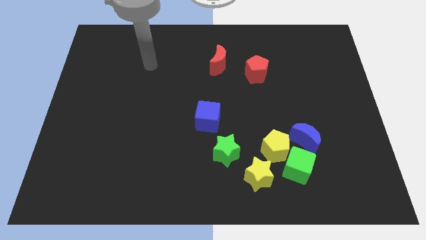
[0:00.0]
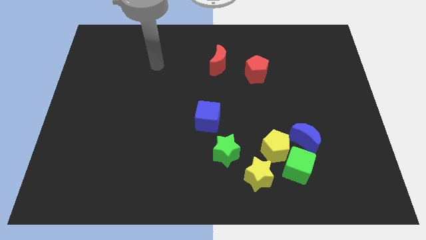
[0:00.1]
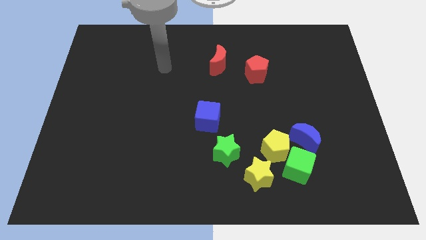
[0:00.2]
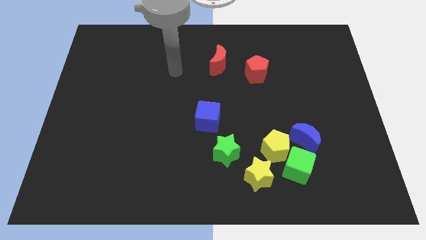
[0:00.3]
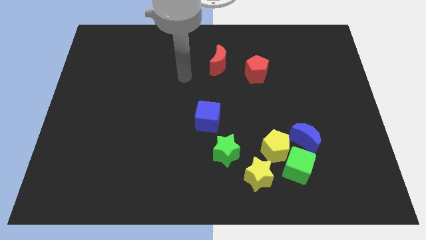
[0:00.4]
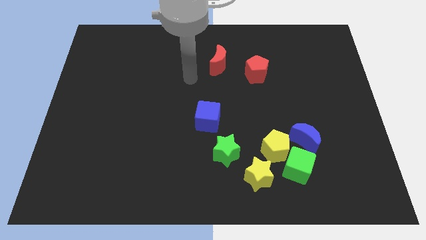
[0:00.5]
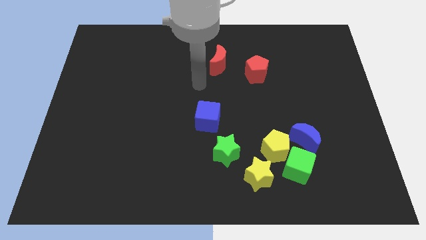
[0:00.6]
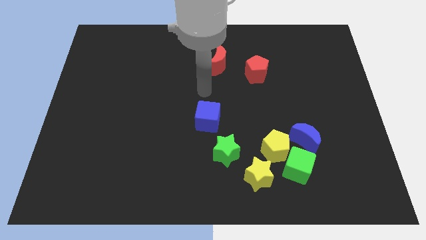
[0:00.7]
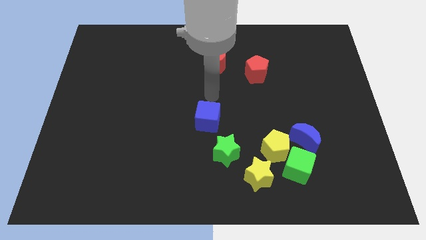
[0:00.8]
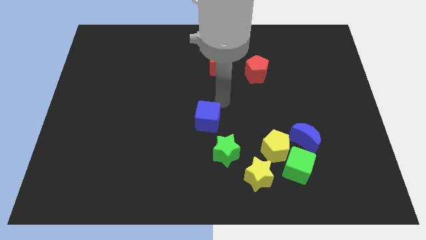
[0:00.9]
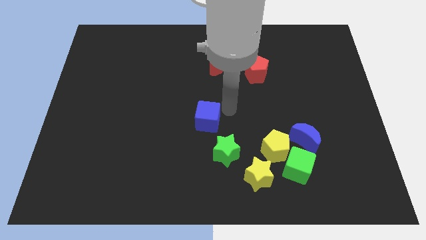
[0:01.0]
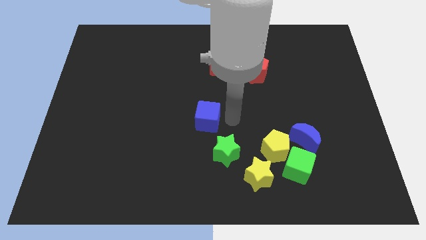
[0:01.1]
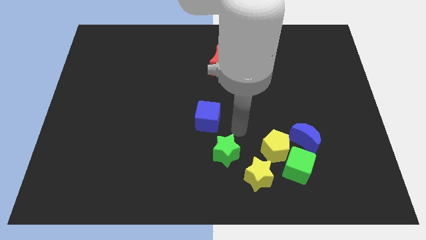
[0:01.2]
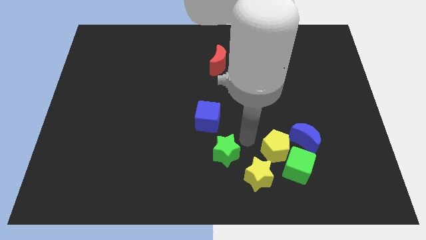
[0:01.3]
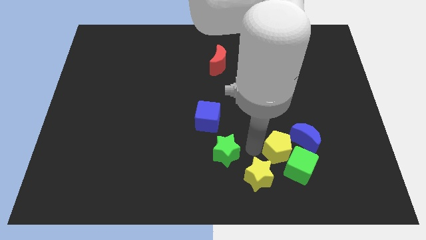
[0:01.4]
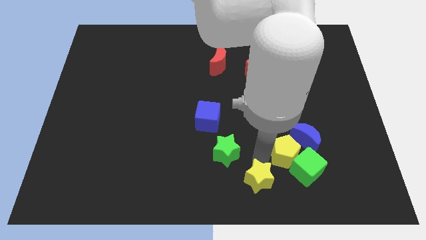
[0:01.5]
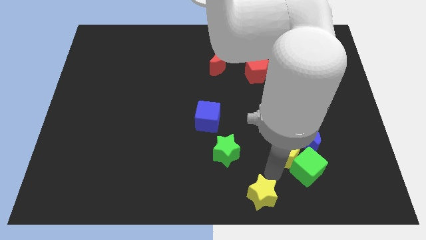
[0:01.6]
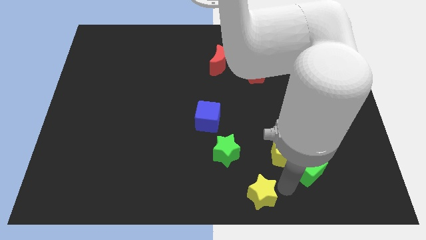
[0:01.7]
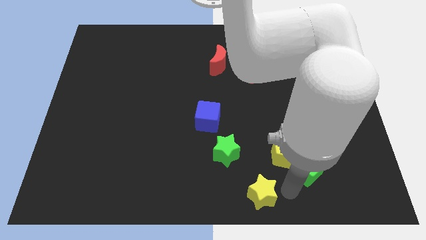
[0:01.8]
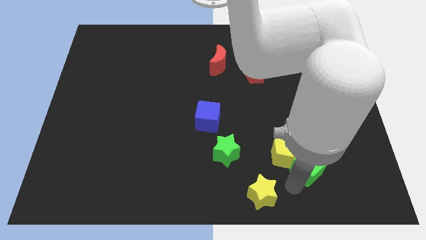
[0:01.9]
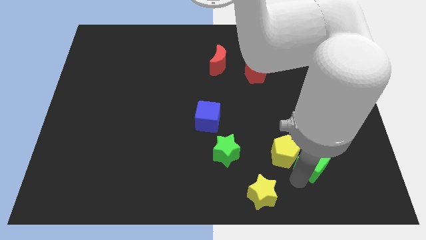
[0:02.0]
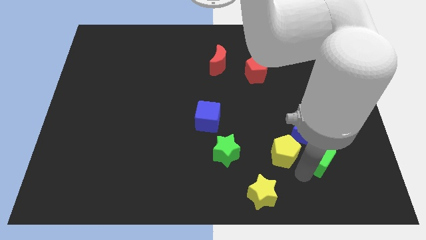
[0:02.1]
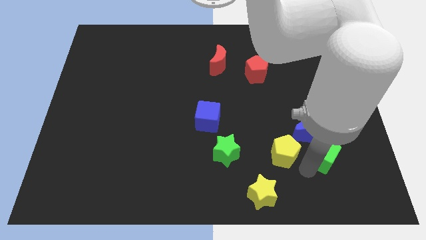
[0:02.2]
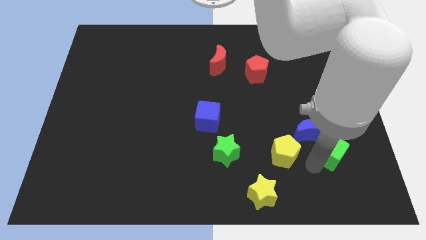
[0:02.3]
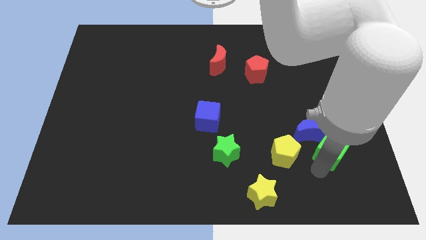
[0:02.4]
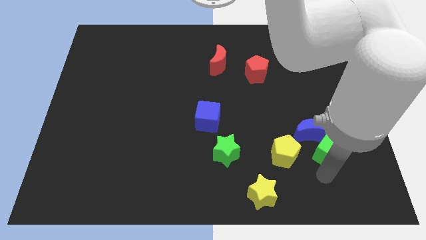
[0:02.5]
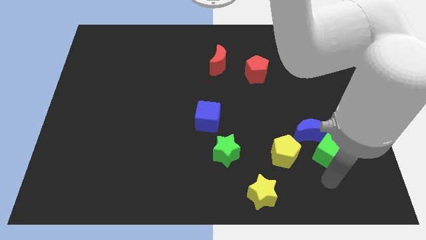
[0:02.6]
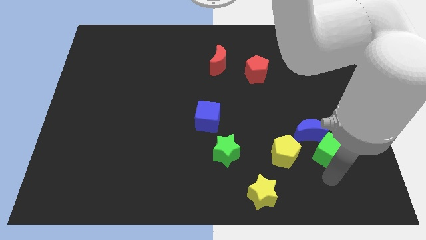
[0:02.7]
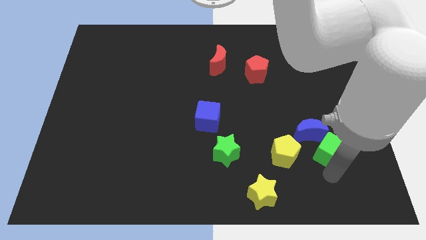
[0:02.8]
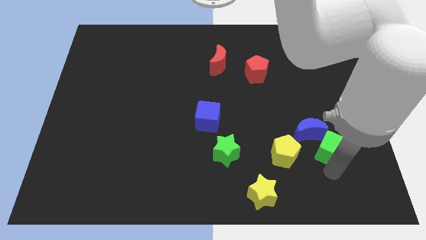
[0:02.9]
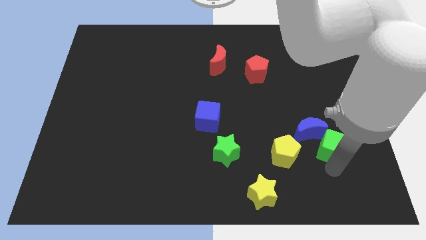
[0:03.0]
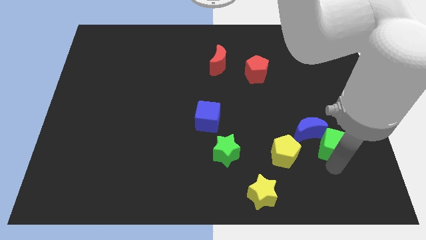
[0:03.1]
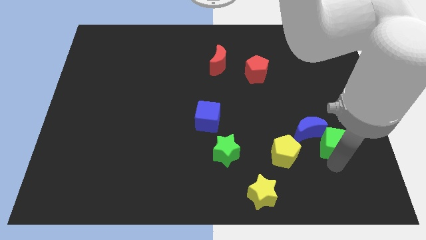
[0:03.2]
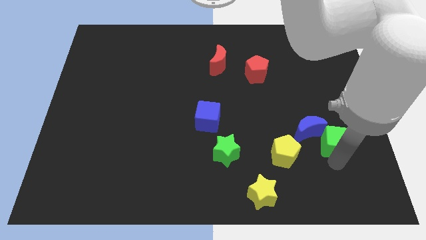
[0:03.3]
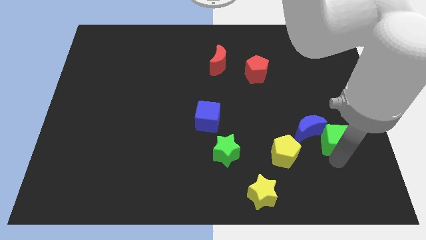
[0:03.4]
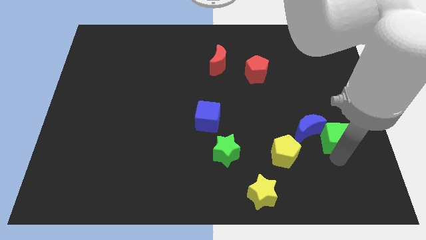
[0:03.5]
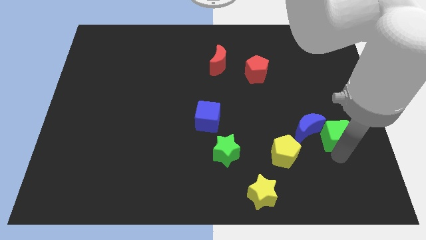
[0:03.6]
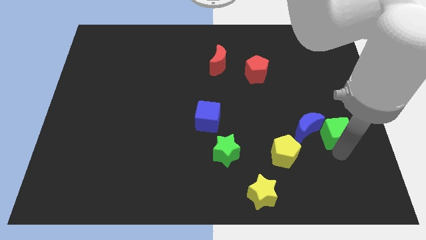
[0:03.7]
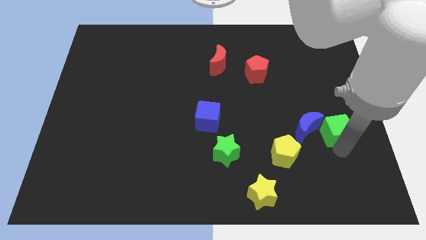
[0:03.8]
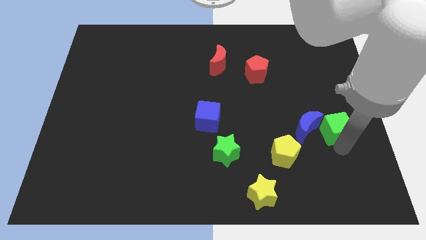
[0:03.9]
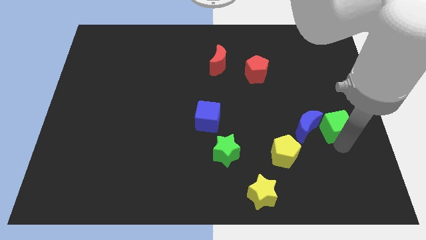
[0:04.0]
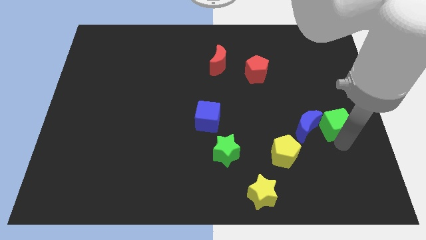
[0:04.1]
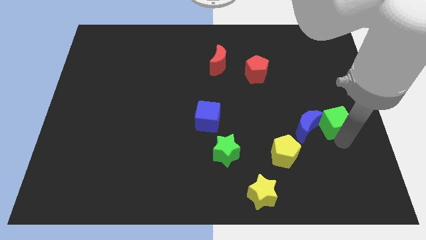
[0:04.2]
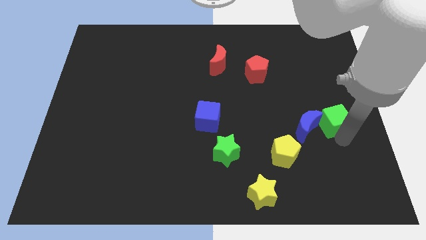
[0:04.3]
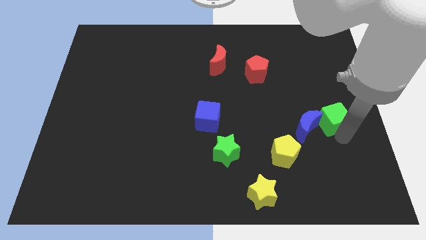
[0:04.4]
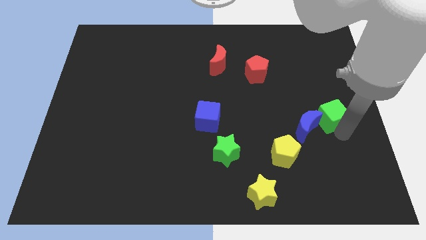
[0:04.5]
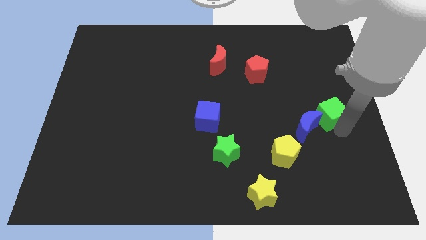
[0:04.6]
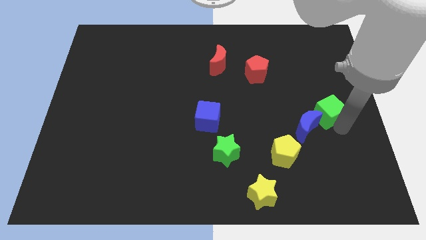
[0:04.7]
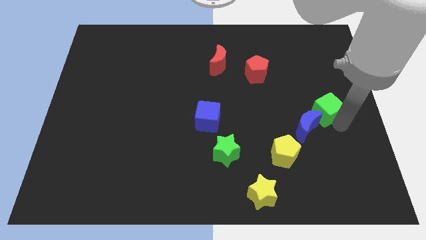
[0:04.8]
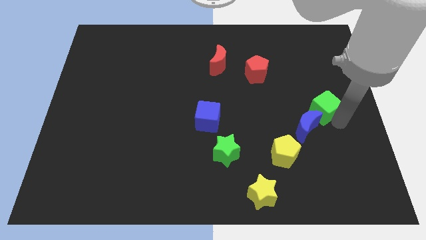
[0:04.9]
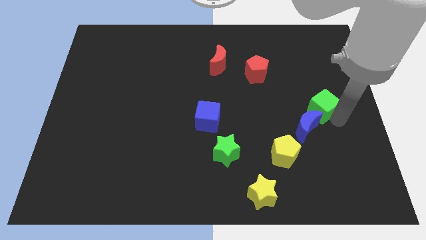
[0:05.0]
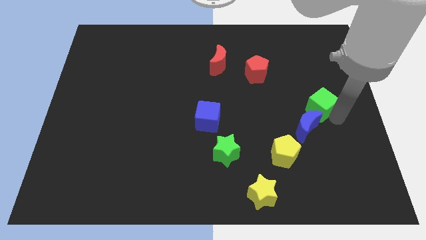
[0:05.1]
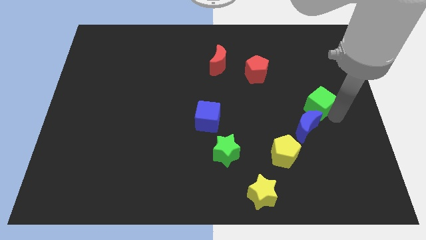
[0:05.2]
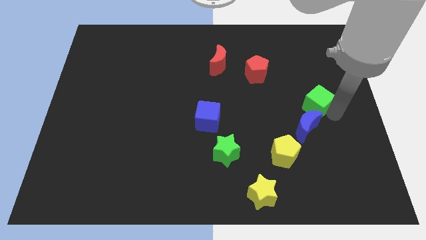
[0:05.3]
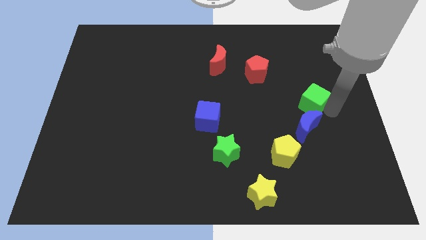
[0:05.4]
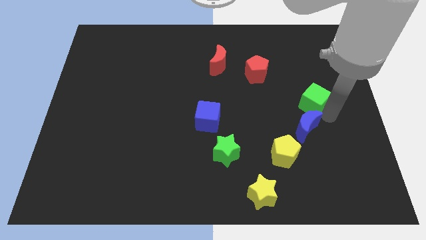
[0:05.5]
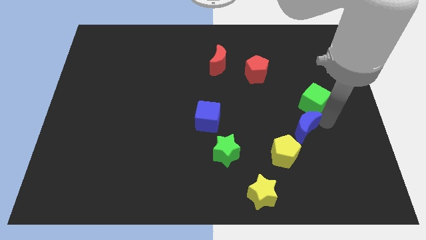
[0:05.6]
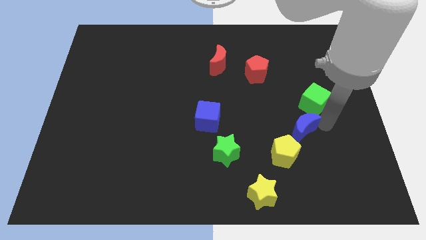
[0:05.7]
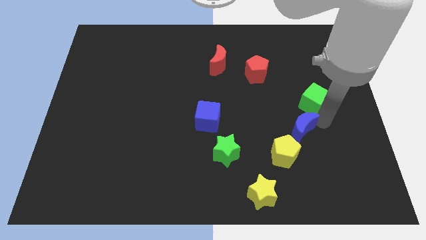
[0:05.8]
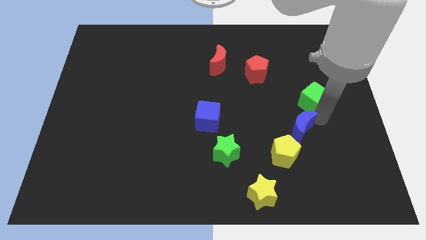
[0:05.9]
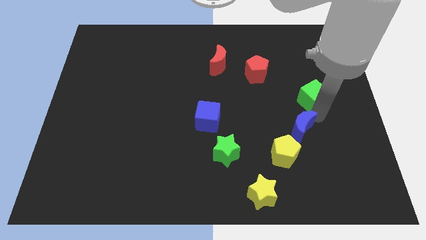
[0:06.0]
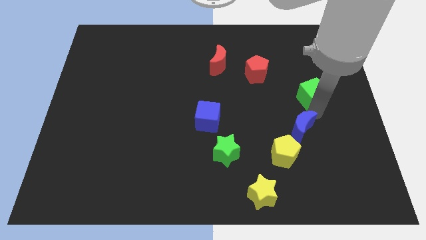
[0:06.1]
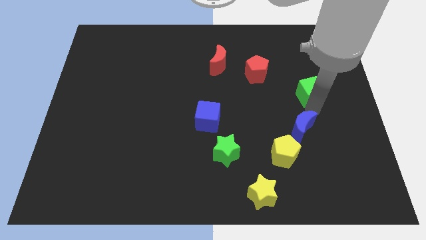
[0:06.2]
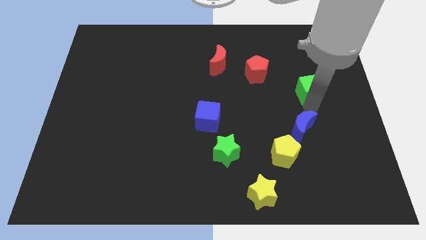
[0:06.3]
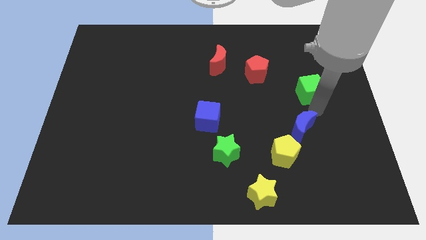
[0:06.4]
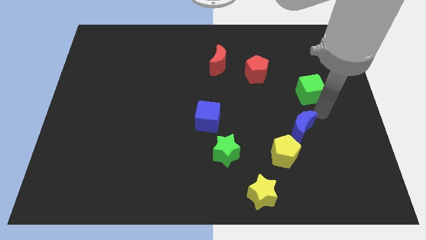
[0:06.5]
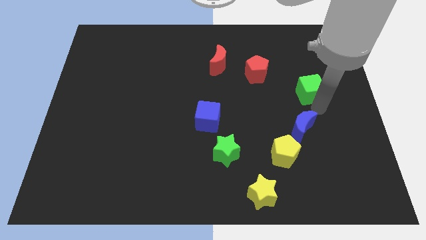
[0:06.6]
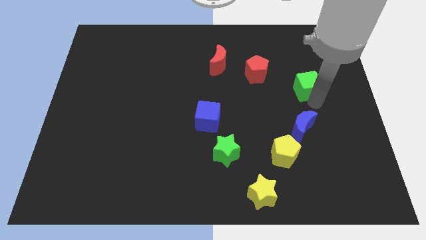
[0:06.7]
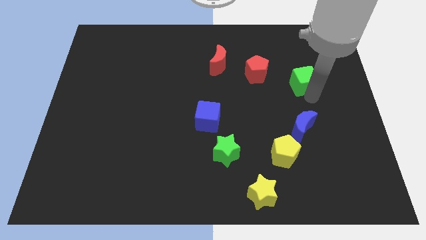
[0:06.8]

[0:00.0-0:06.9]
slide the green cube just right of the red pentagon
